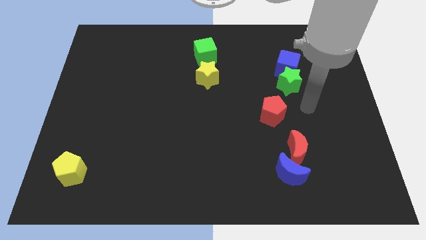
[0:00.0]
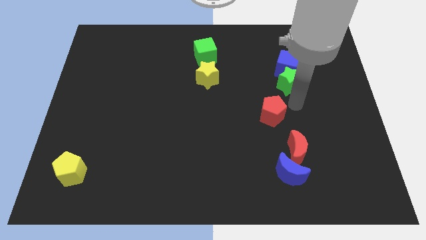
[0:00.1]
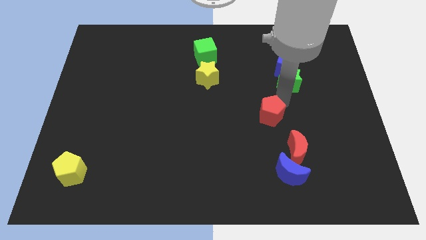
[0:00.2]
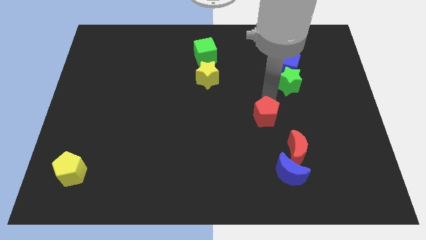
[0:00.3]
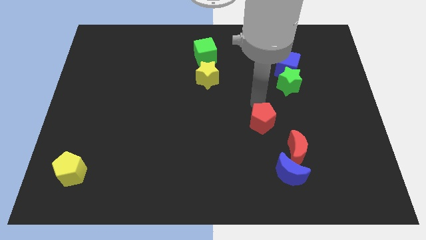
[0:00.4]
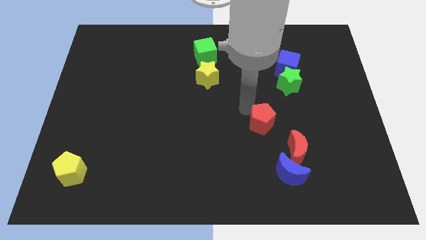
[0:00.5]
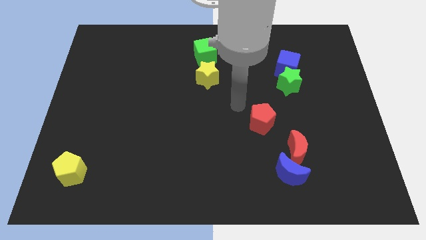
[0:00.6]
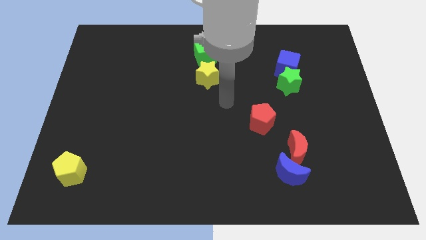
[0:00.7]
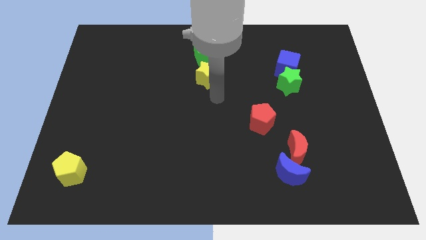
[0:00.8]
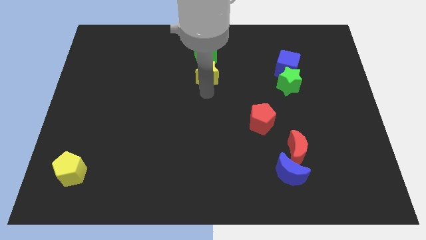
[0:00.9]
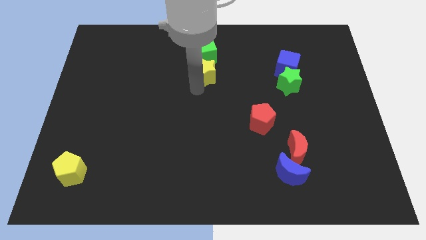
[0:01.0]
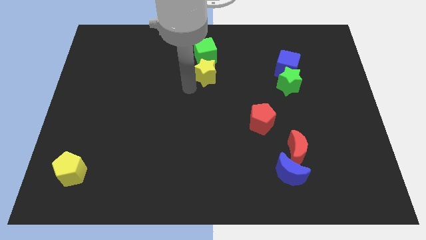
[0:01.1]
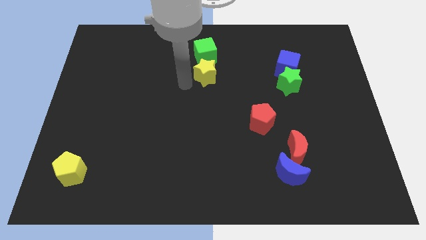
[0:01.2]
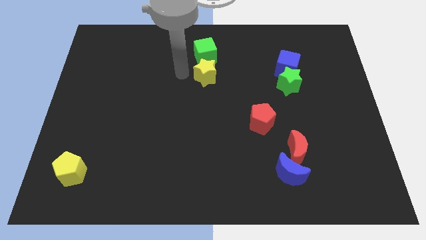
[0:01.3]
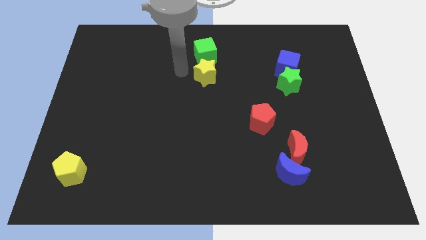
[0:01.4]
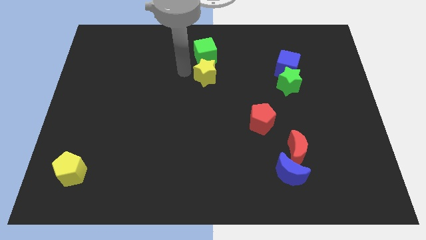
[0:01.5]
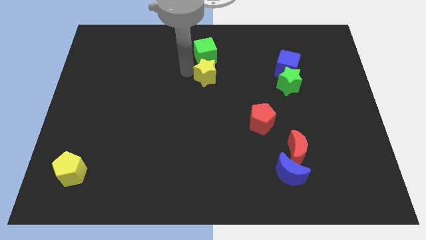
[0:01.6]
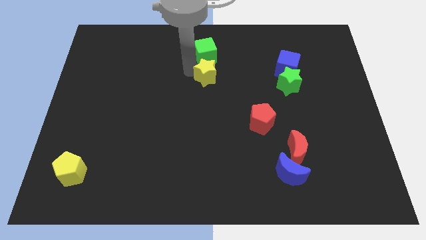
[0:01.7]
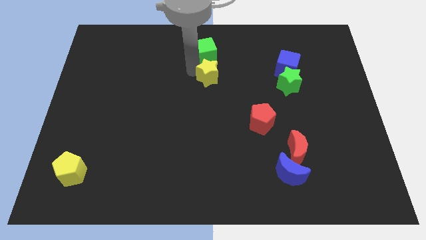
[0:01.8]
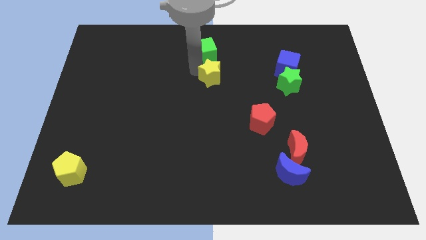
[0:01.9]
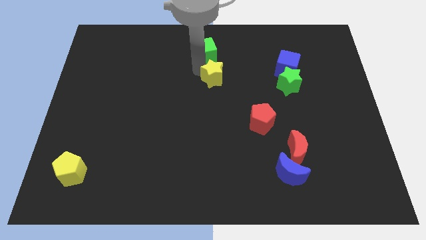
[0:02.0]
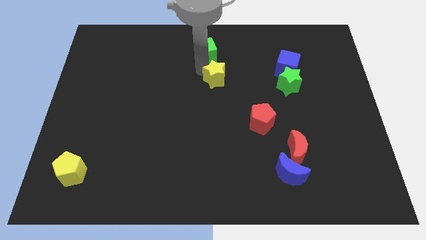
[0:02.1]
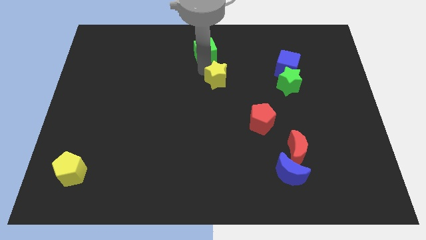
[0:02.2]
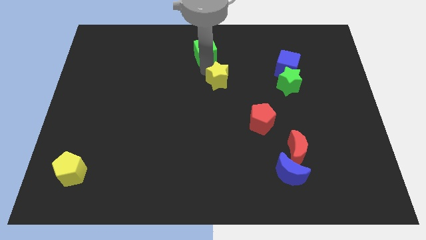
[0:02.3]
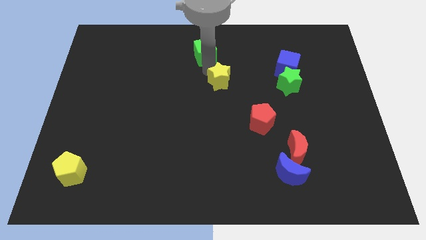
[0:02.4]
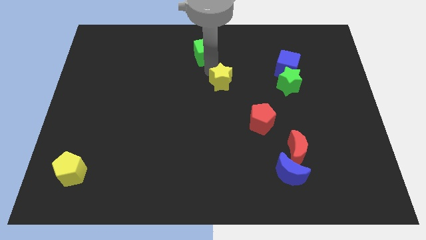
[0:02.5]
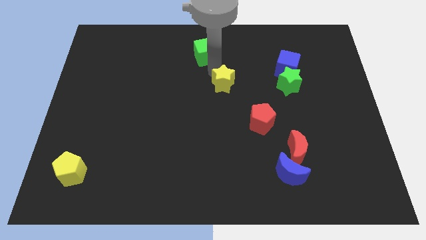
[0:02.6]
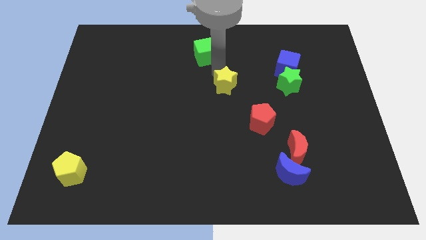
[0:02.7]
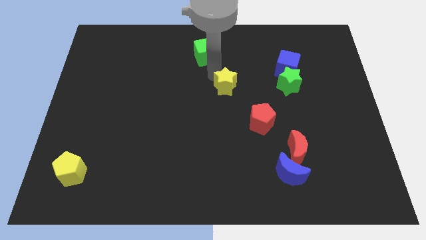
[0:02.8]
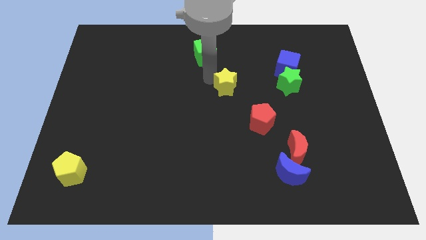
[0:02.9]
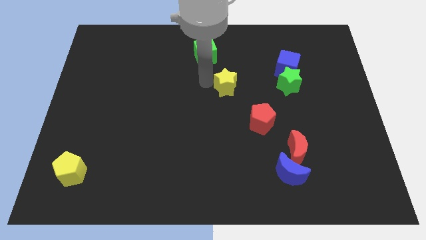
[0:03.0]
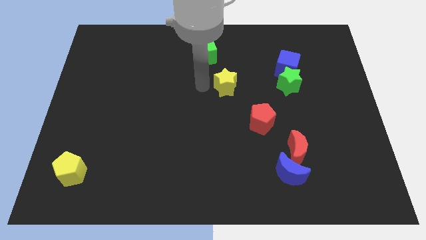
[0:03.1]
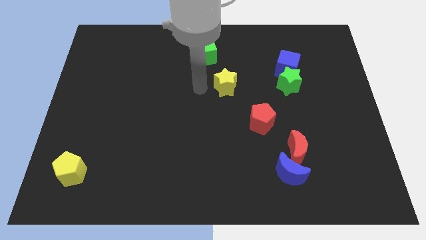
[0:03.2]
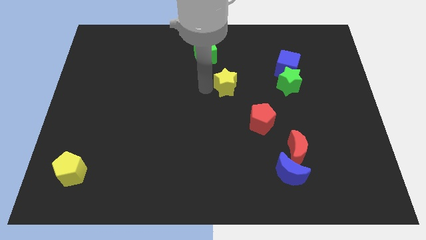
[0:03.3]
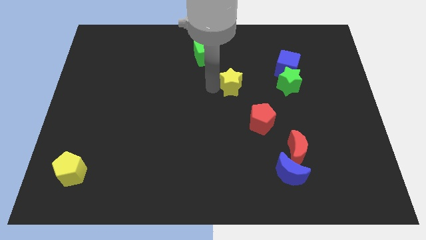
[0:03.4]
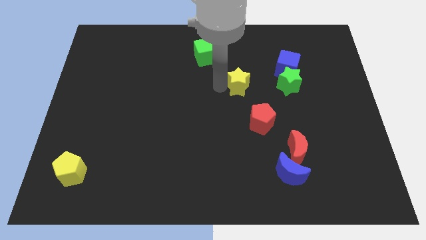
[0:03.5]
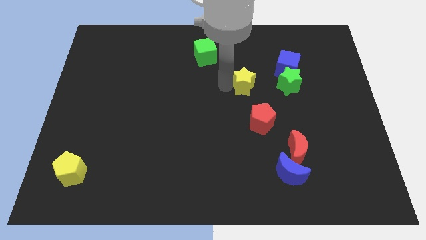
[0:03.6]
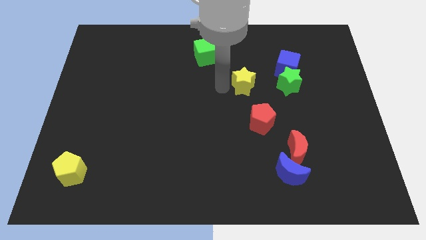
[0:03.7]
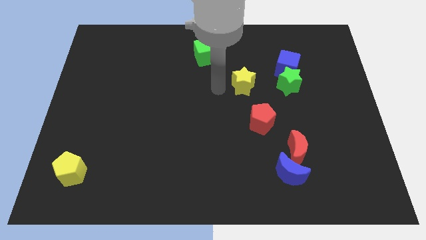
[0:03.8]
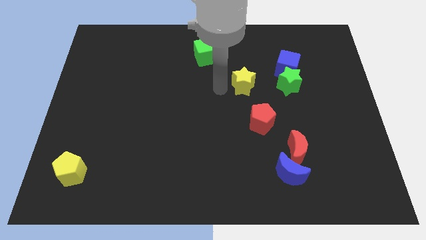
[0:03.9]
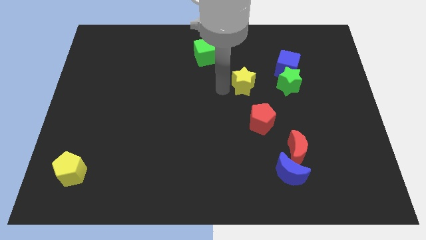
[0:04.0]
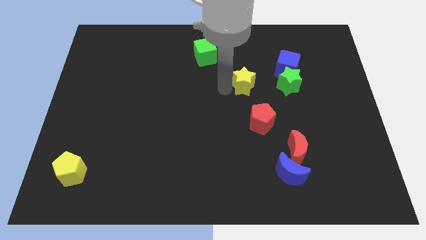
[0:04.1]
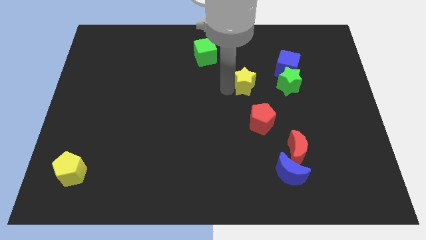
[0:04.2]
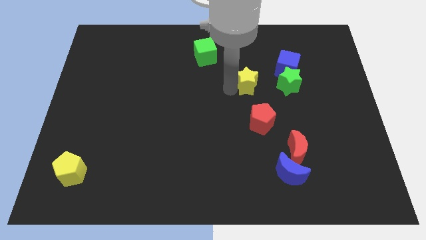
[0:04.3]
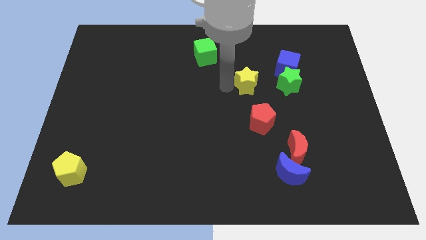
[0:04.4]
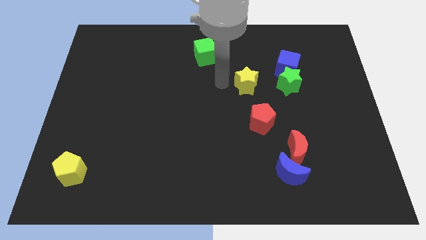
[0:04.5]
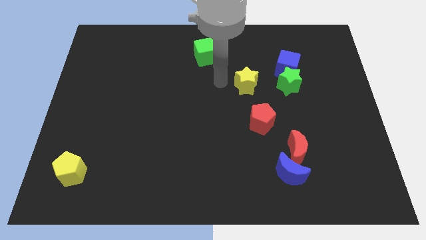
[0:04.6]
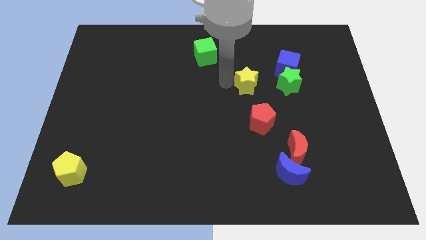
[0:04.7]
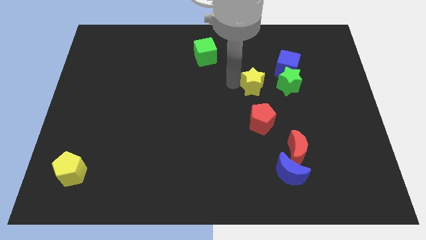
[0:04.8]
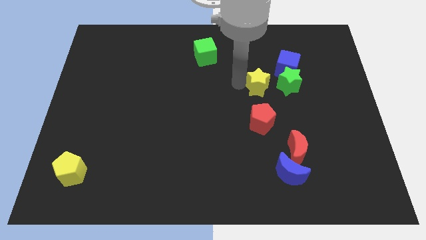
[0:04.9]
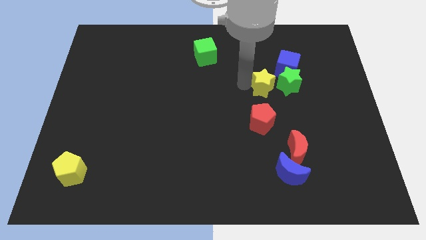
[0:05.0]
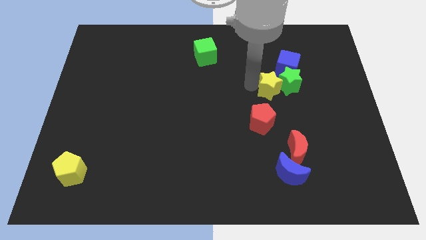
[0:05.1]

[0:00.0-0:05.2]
move the yellow star towards the green star

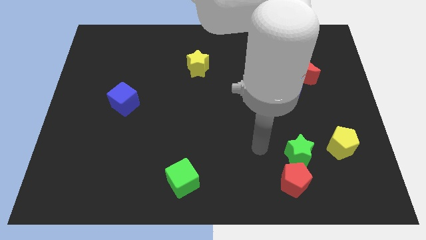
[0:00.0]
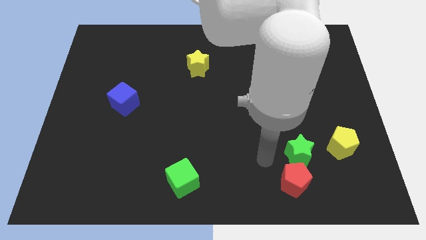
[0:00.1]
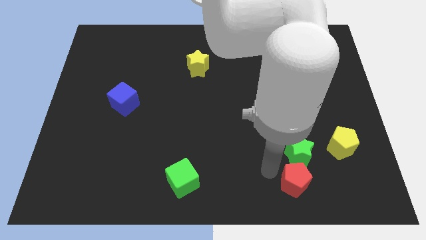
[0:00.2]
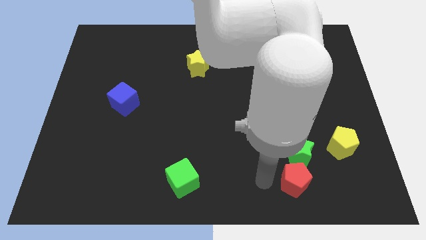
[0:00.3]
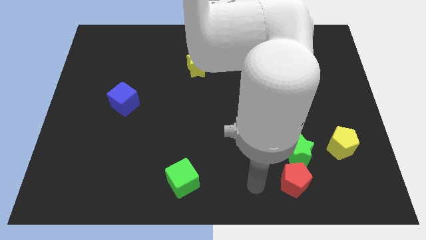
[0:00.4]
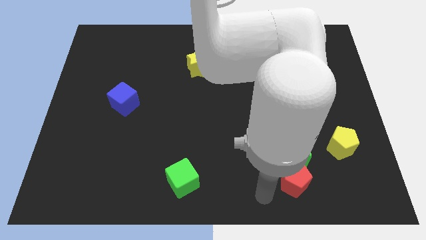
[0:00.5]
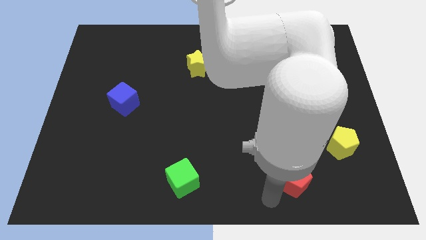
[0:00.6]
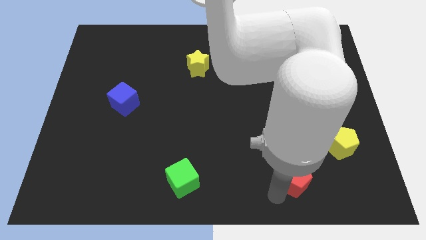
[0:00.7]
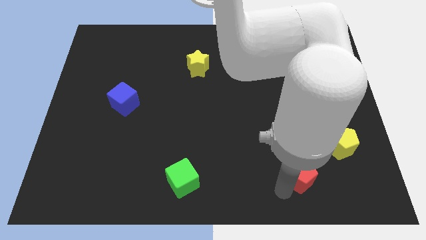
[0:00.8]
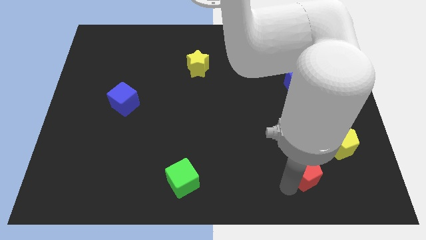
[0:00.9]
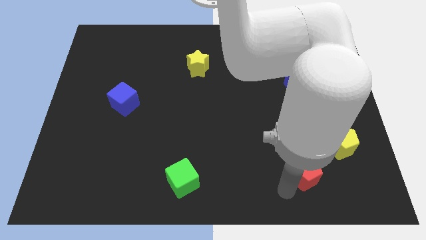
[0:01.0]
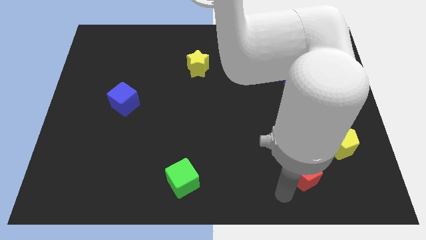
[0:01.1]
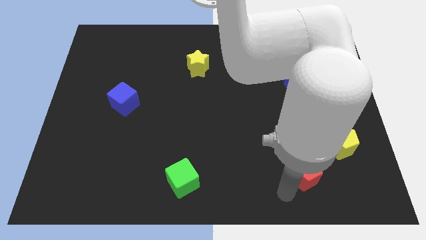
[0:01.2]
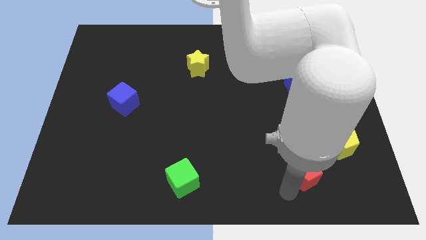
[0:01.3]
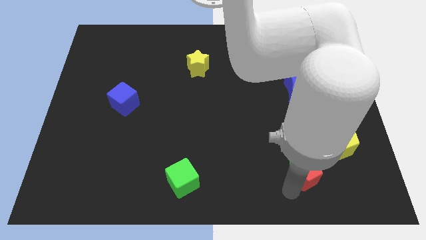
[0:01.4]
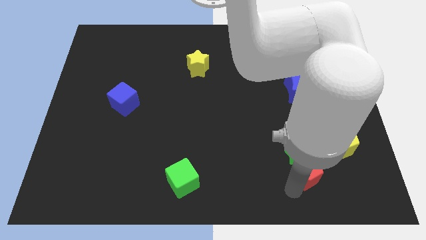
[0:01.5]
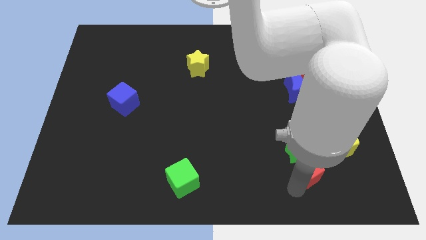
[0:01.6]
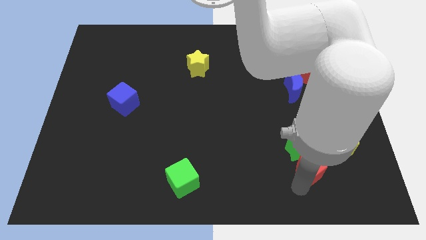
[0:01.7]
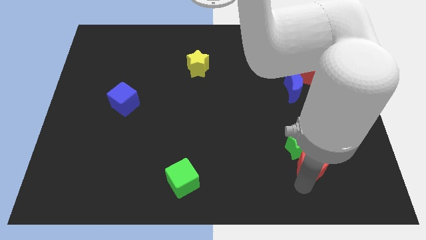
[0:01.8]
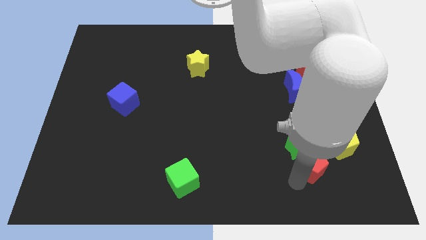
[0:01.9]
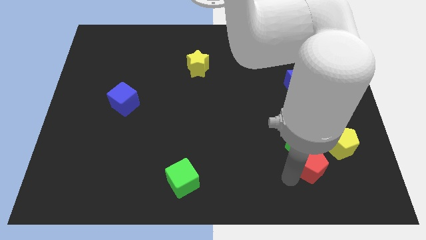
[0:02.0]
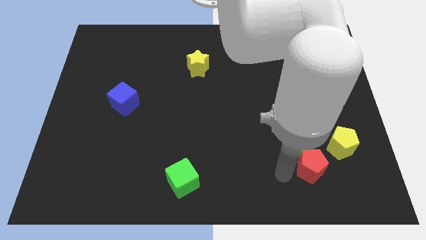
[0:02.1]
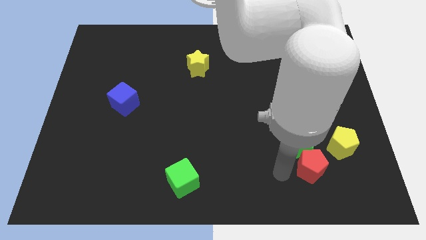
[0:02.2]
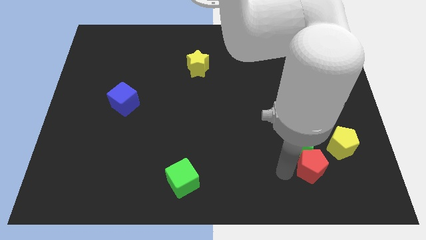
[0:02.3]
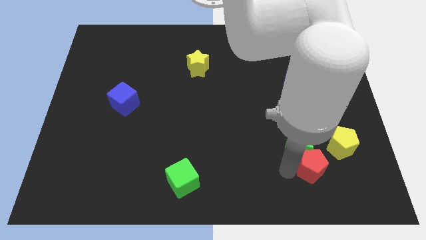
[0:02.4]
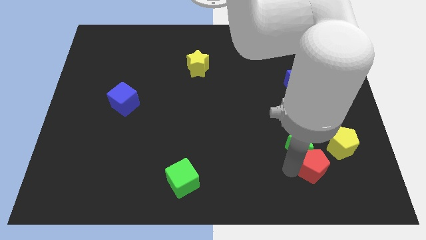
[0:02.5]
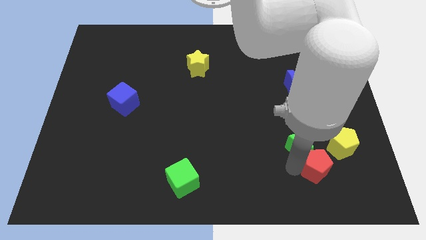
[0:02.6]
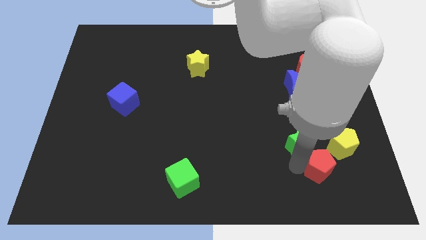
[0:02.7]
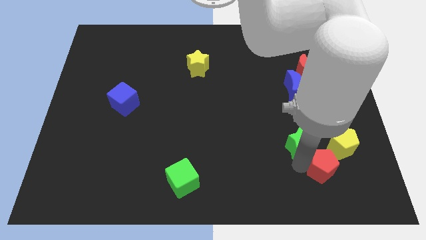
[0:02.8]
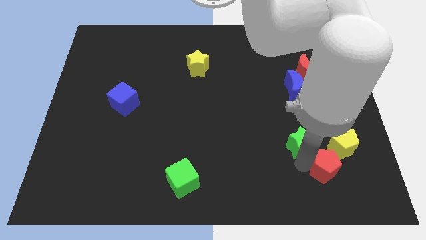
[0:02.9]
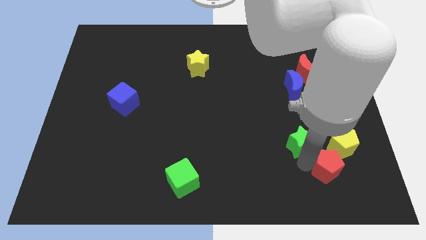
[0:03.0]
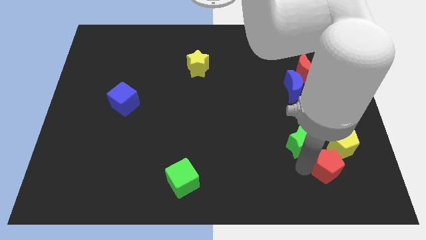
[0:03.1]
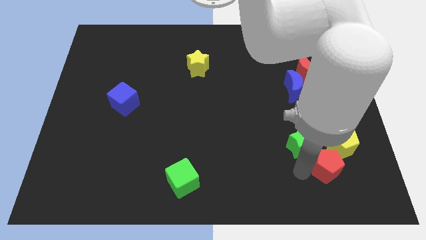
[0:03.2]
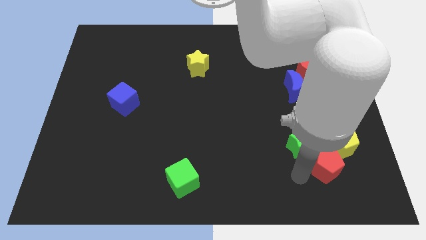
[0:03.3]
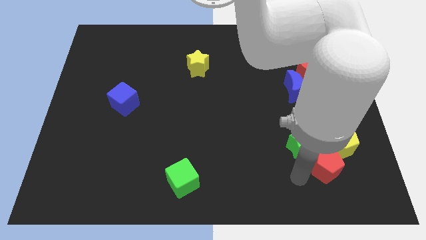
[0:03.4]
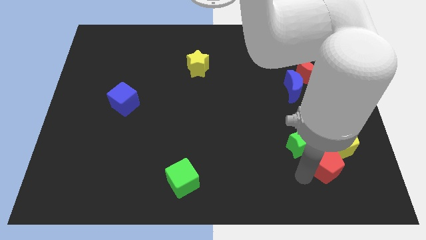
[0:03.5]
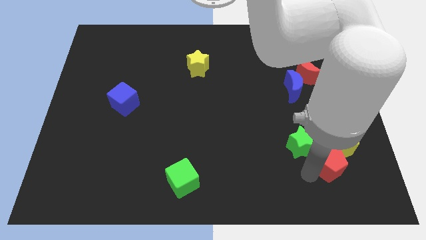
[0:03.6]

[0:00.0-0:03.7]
push the red pentagon towards the yellow pentagon
